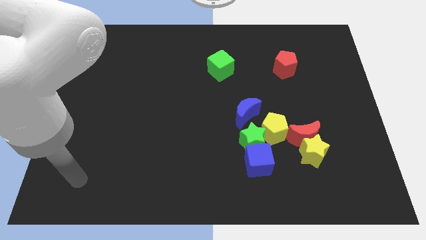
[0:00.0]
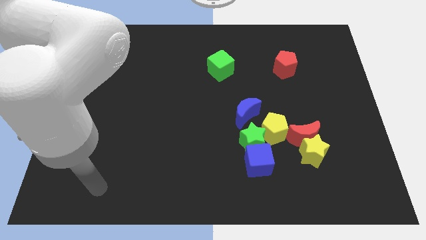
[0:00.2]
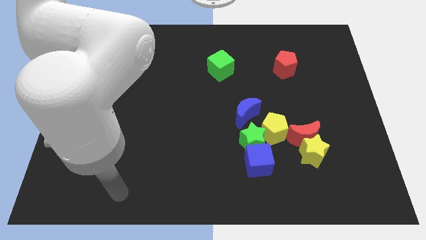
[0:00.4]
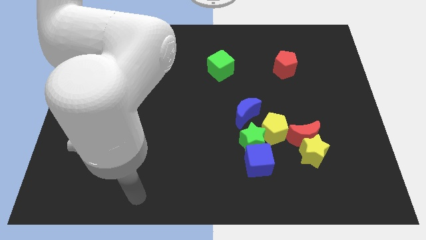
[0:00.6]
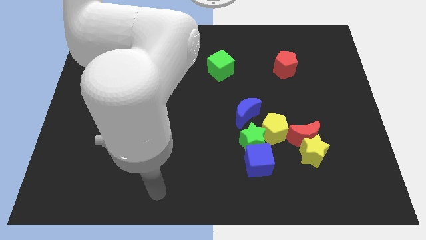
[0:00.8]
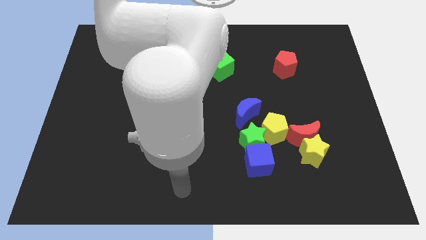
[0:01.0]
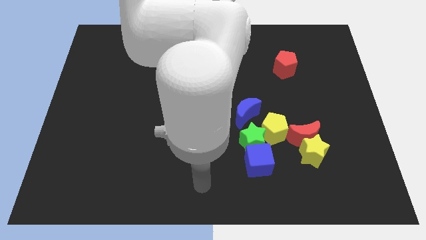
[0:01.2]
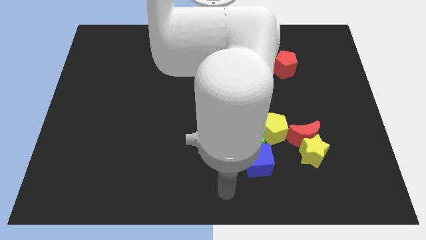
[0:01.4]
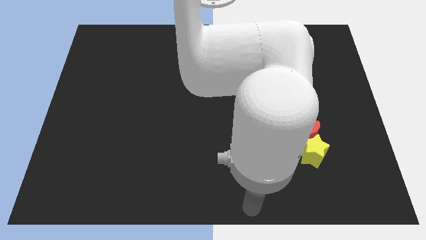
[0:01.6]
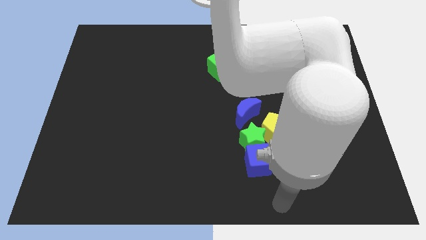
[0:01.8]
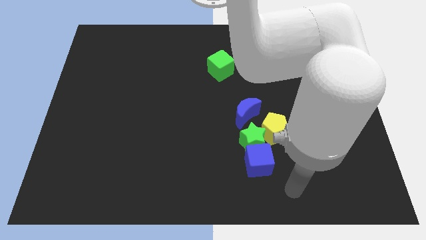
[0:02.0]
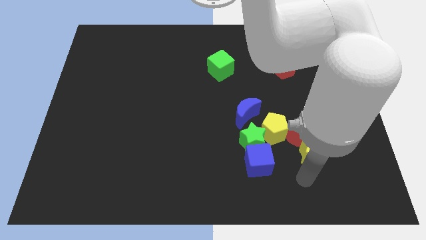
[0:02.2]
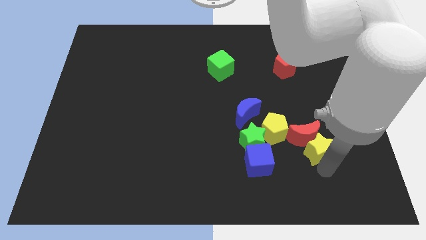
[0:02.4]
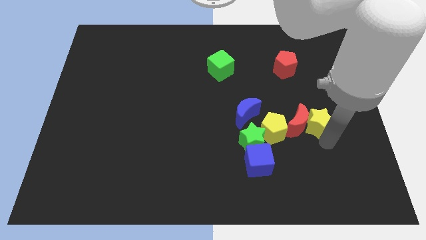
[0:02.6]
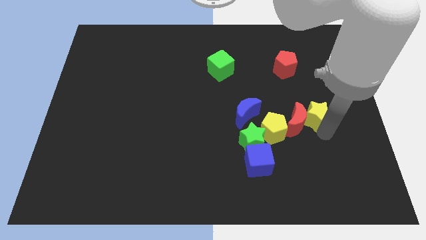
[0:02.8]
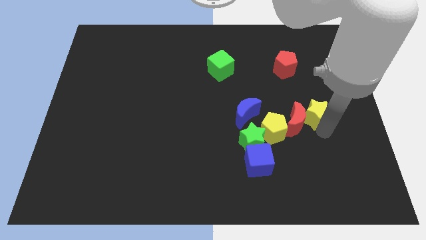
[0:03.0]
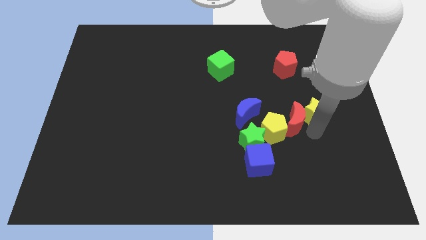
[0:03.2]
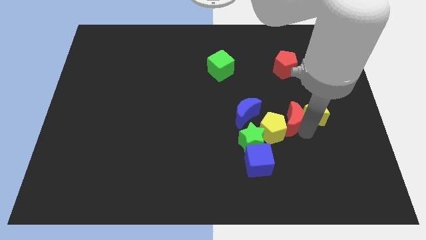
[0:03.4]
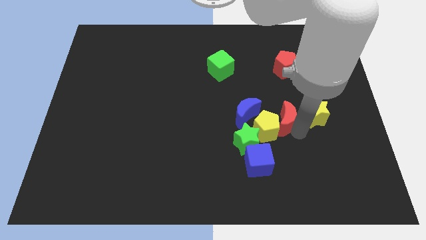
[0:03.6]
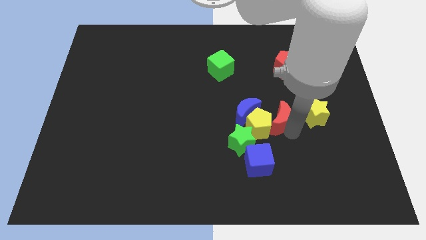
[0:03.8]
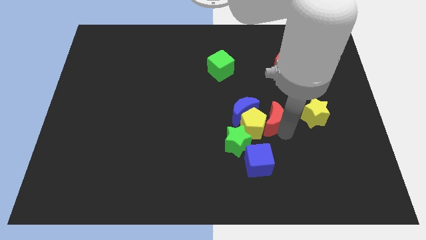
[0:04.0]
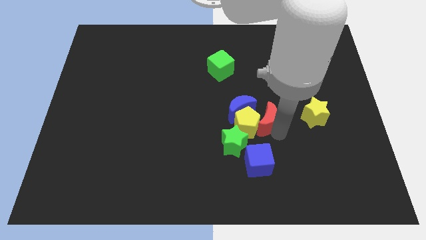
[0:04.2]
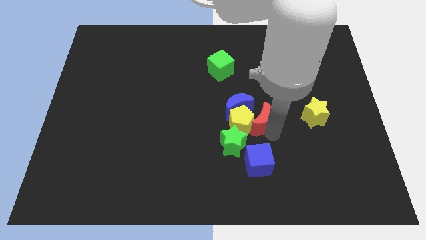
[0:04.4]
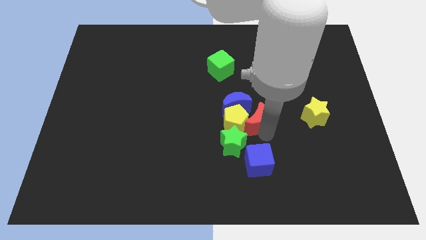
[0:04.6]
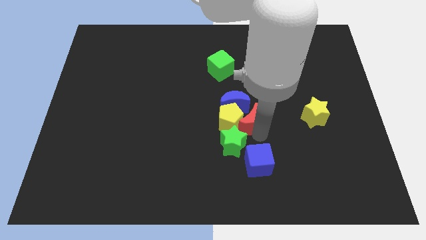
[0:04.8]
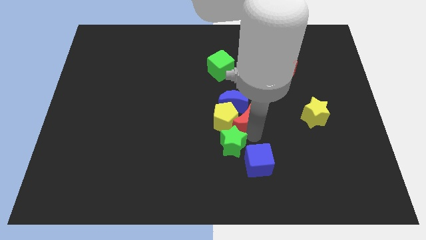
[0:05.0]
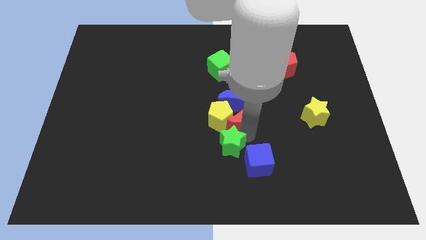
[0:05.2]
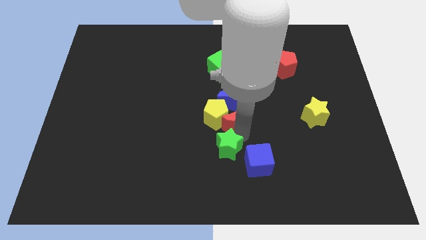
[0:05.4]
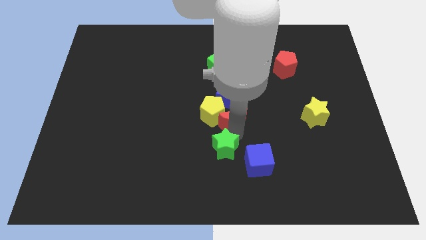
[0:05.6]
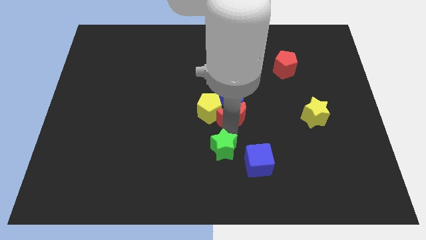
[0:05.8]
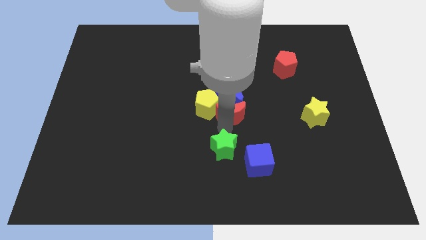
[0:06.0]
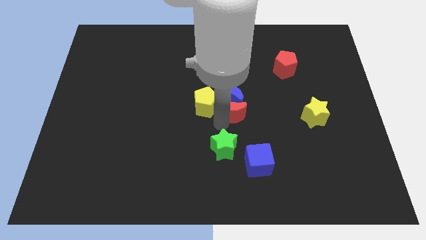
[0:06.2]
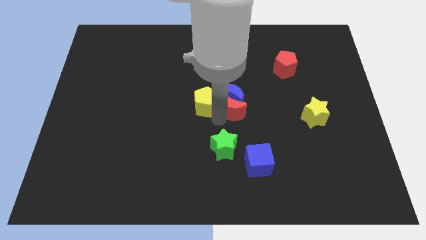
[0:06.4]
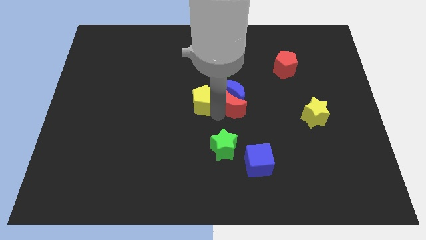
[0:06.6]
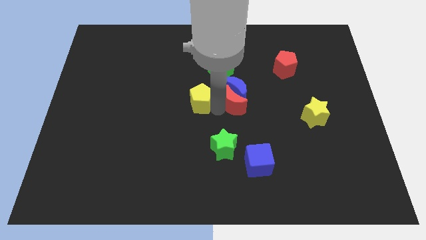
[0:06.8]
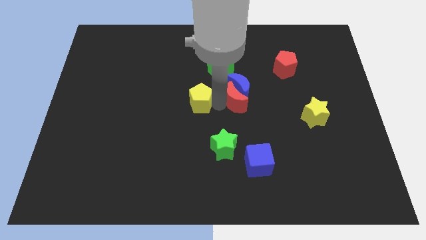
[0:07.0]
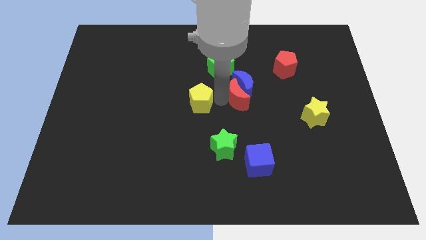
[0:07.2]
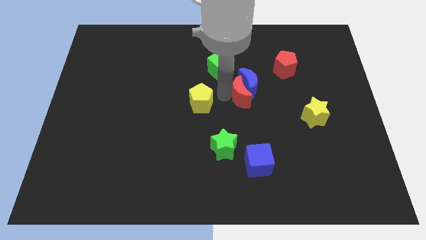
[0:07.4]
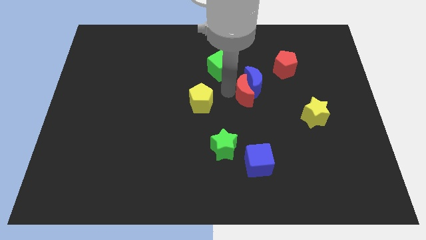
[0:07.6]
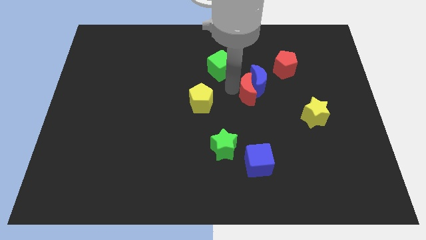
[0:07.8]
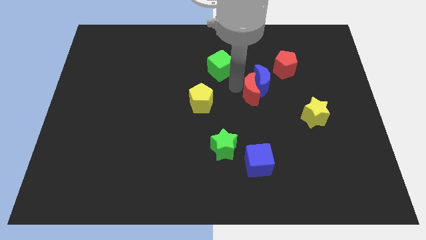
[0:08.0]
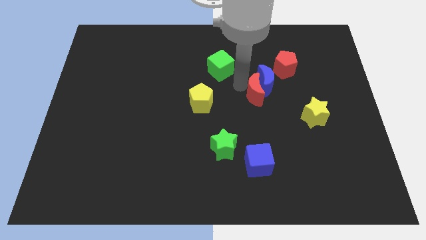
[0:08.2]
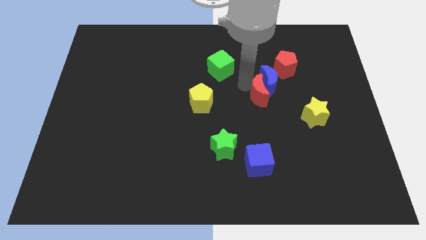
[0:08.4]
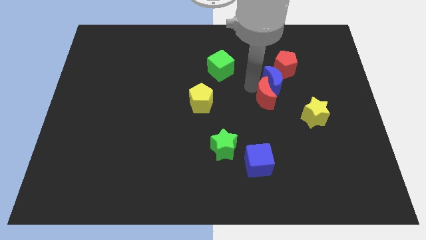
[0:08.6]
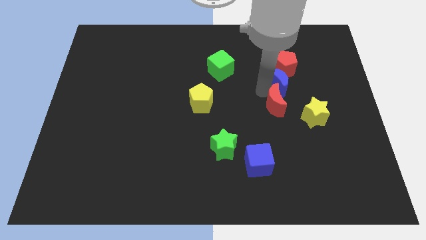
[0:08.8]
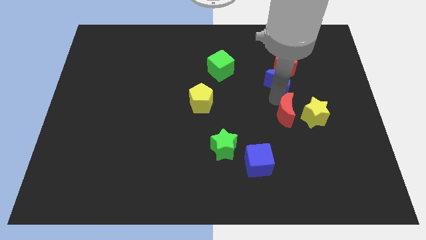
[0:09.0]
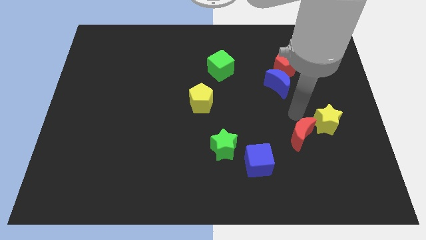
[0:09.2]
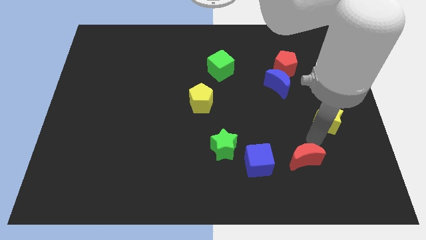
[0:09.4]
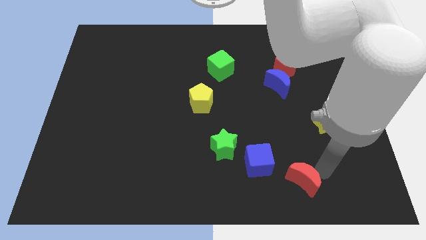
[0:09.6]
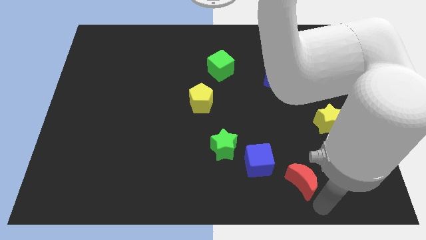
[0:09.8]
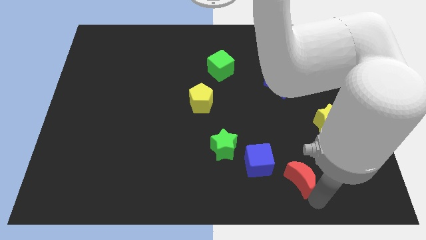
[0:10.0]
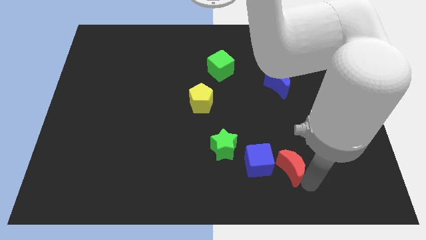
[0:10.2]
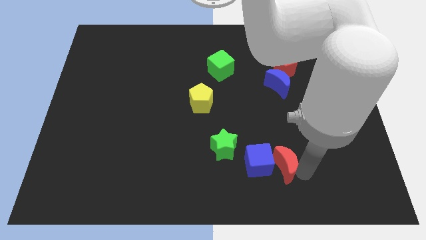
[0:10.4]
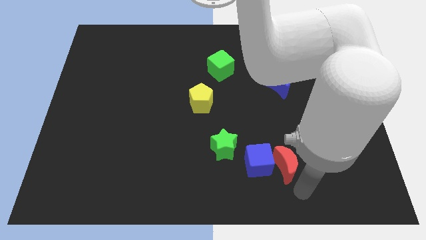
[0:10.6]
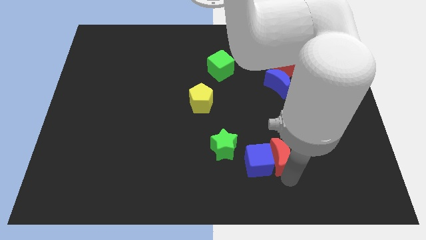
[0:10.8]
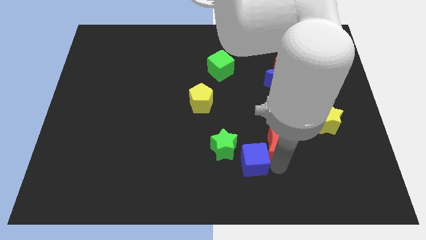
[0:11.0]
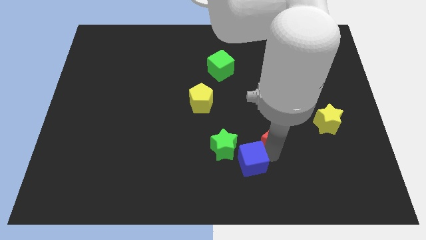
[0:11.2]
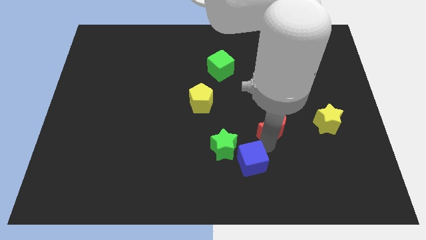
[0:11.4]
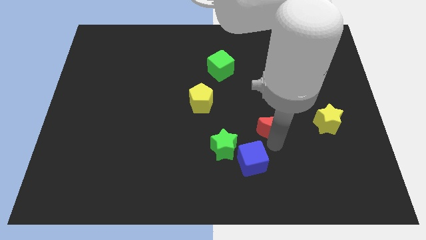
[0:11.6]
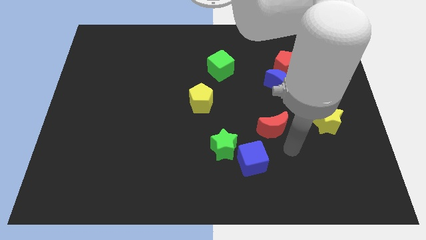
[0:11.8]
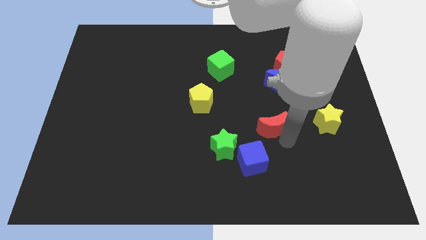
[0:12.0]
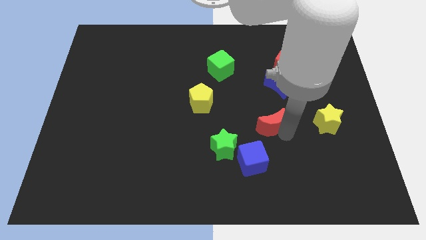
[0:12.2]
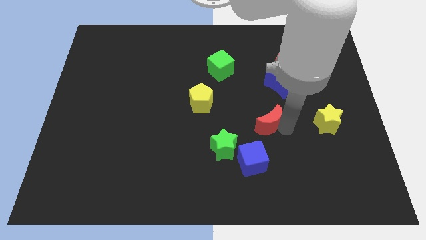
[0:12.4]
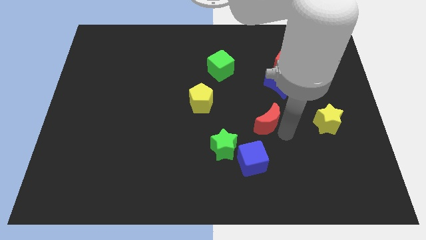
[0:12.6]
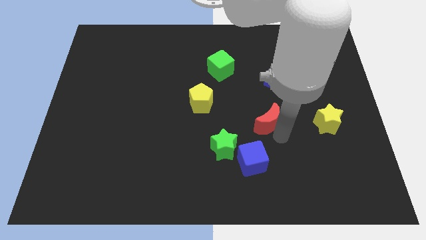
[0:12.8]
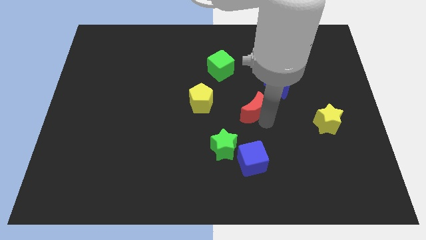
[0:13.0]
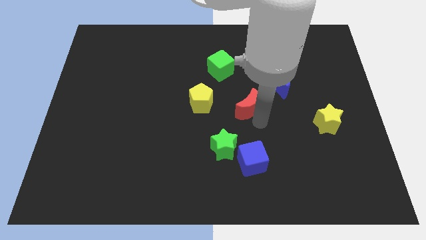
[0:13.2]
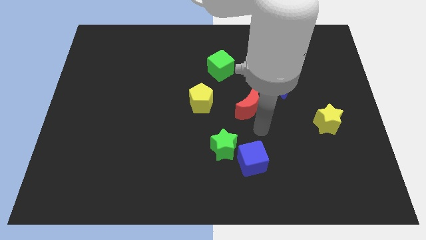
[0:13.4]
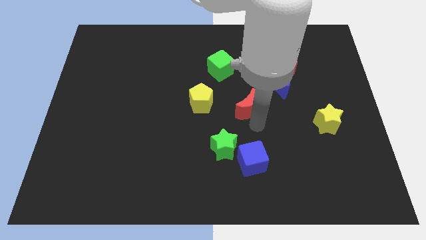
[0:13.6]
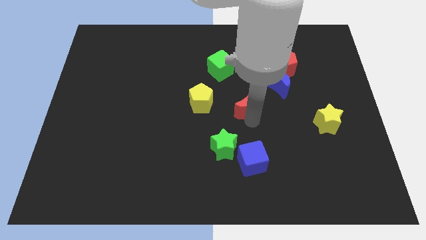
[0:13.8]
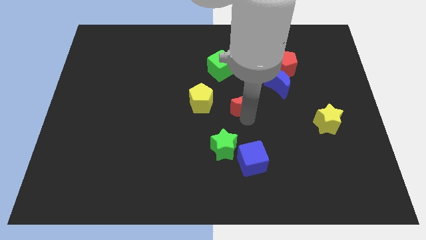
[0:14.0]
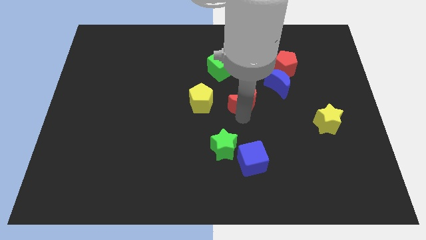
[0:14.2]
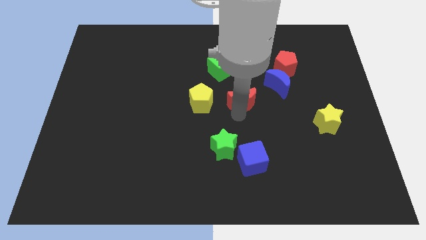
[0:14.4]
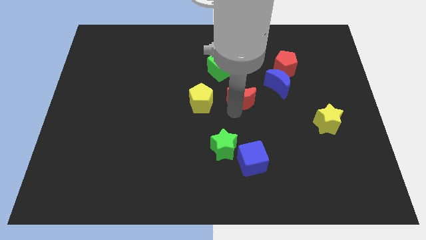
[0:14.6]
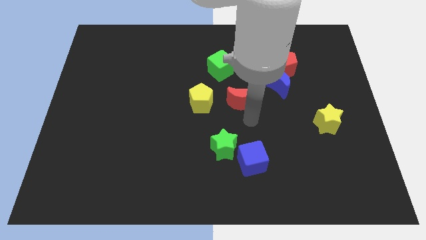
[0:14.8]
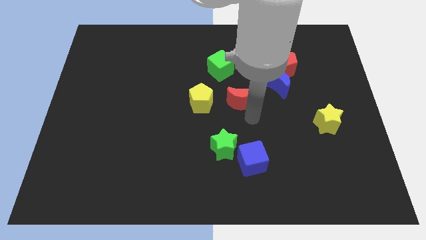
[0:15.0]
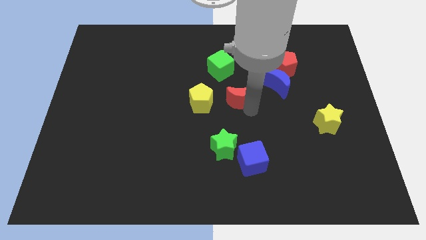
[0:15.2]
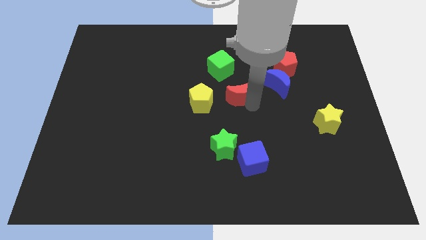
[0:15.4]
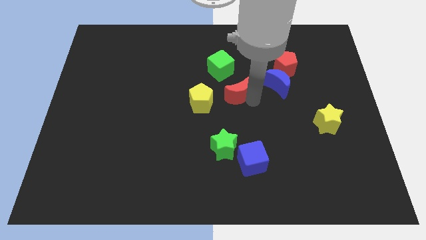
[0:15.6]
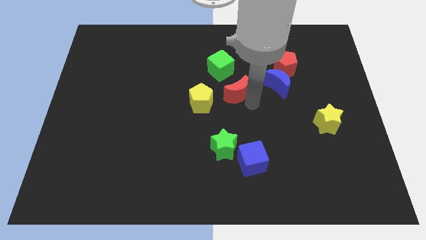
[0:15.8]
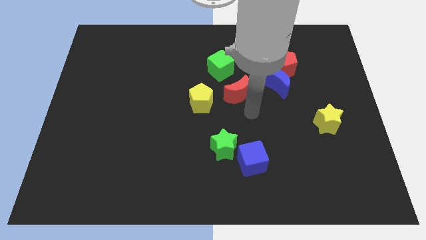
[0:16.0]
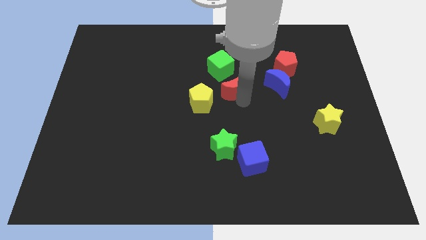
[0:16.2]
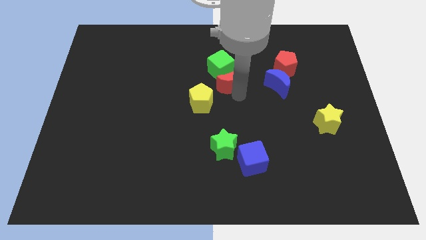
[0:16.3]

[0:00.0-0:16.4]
put the red moon towards the green cube
